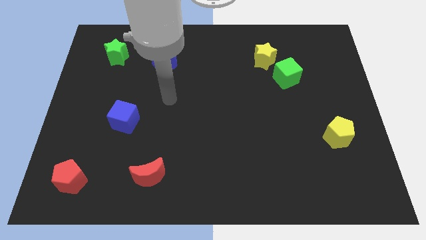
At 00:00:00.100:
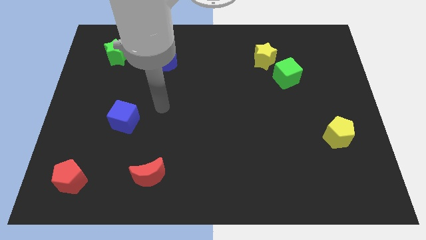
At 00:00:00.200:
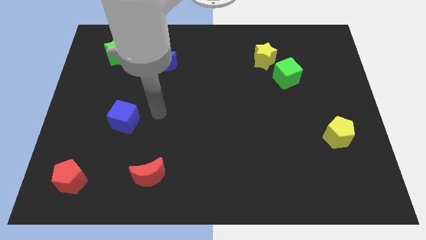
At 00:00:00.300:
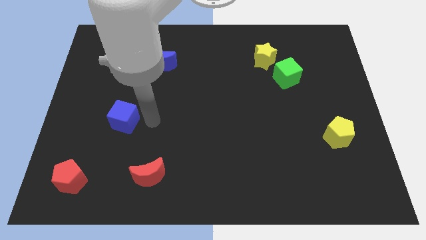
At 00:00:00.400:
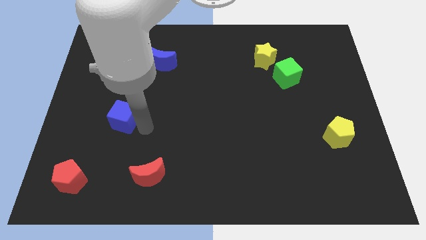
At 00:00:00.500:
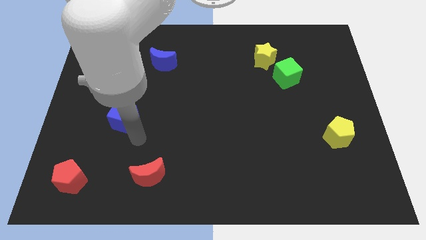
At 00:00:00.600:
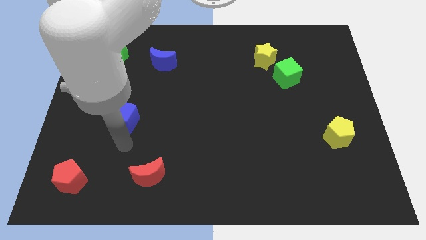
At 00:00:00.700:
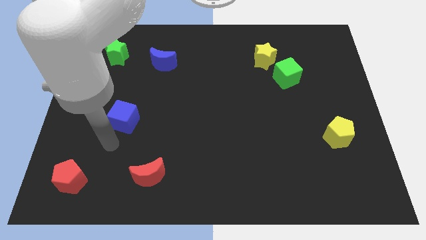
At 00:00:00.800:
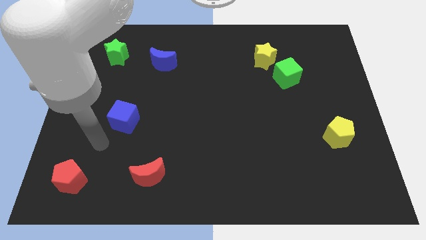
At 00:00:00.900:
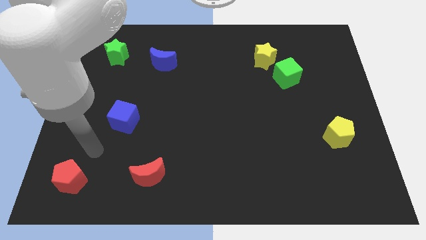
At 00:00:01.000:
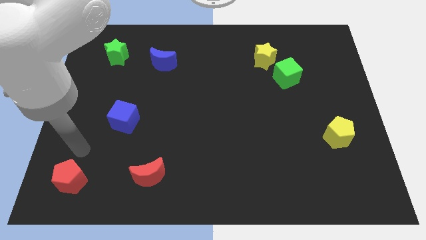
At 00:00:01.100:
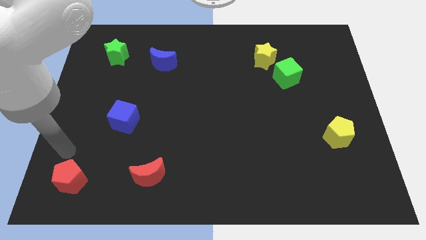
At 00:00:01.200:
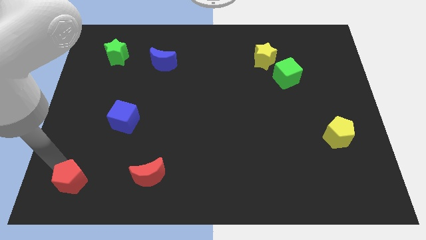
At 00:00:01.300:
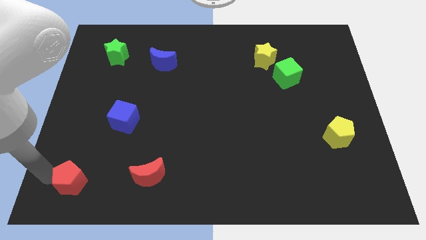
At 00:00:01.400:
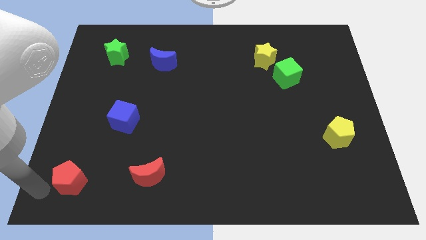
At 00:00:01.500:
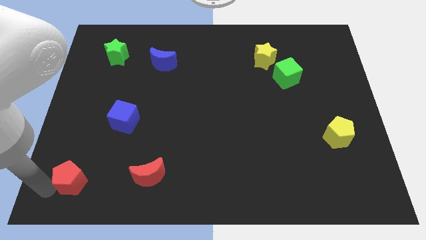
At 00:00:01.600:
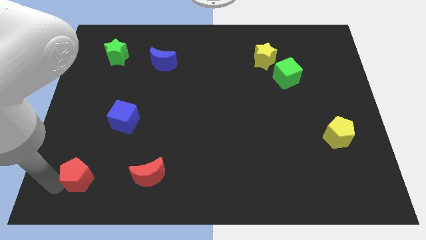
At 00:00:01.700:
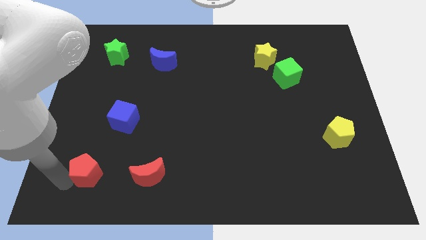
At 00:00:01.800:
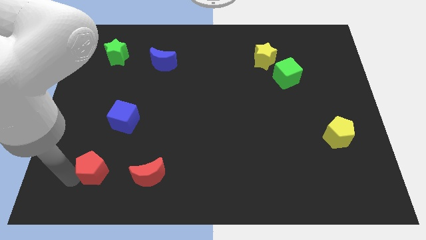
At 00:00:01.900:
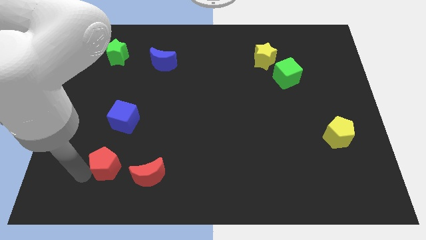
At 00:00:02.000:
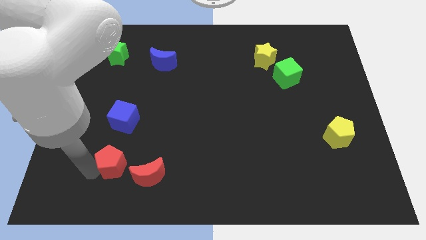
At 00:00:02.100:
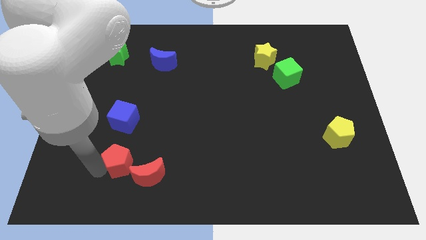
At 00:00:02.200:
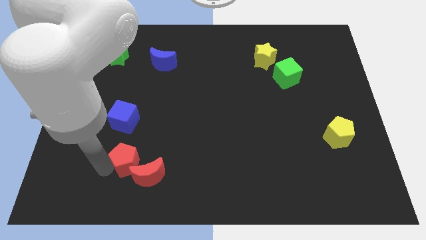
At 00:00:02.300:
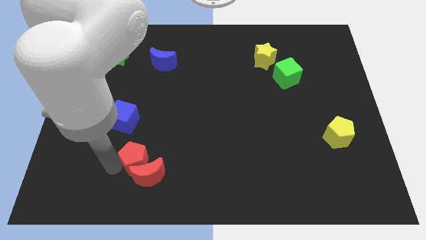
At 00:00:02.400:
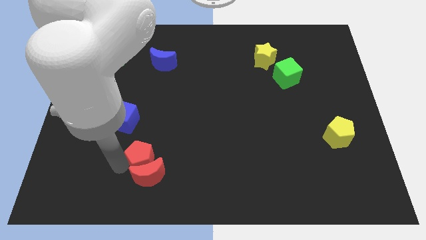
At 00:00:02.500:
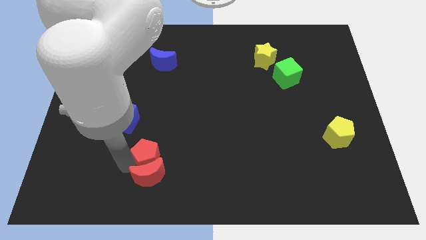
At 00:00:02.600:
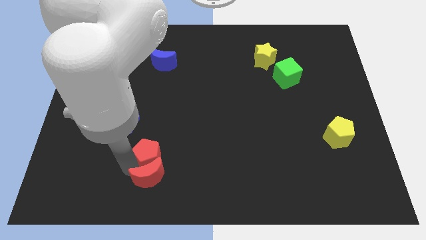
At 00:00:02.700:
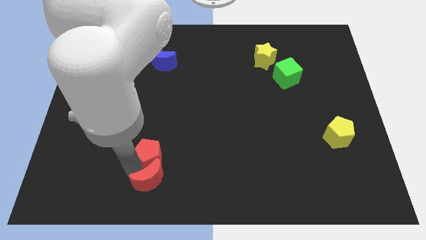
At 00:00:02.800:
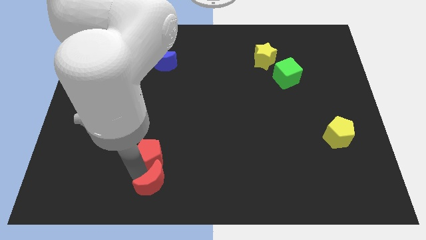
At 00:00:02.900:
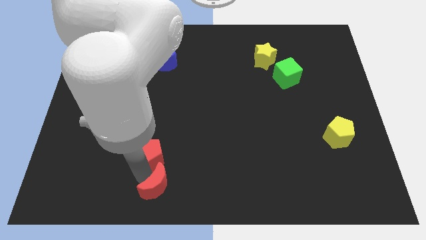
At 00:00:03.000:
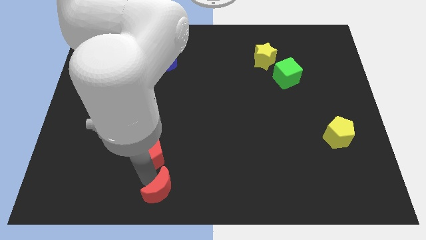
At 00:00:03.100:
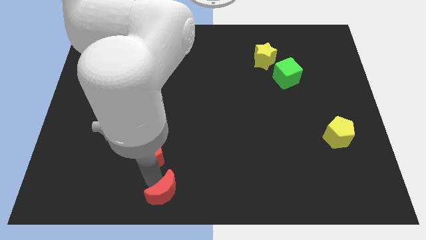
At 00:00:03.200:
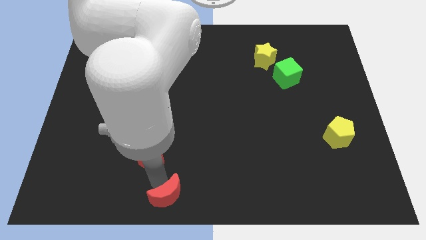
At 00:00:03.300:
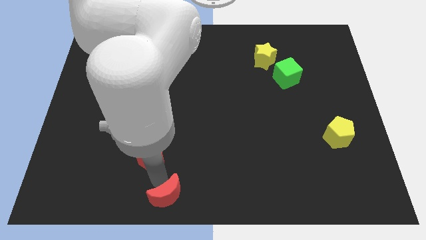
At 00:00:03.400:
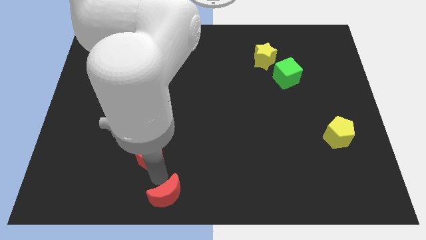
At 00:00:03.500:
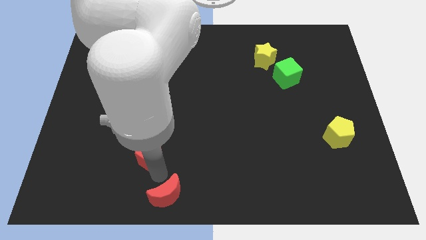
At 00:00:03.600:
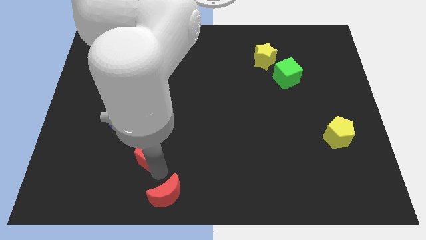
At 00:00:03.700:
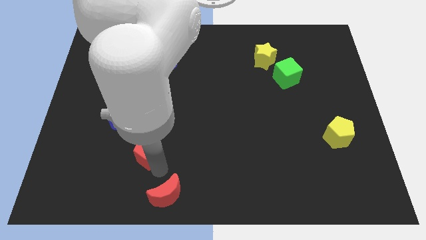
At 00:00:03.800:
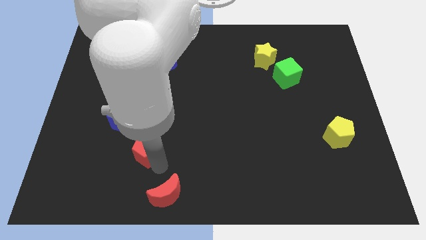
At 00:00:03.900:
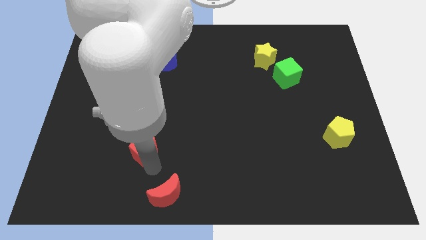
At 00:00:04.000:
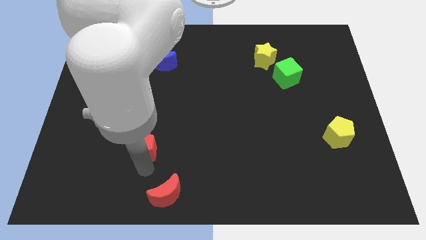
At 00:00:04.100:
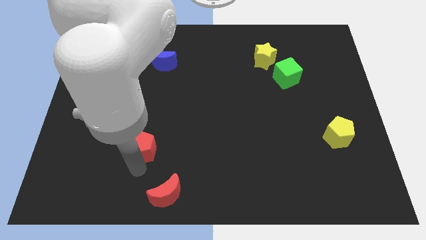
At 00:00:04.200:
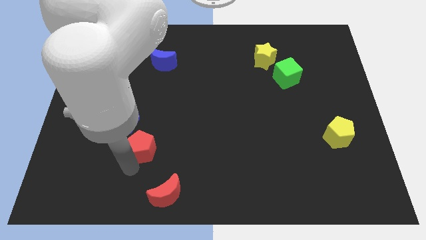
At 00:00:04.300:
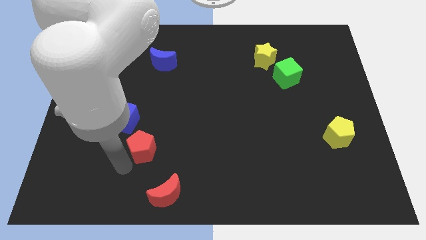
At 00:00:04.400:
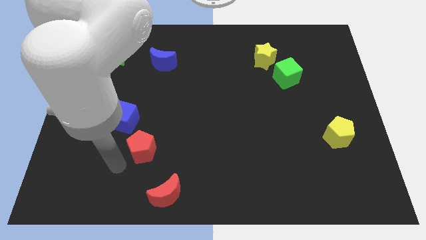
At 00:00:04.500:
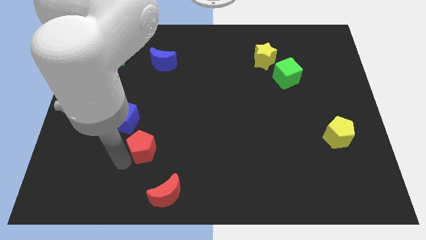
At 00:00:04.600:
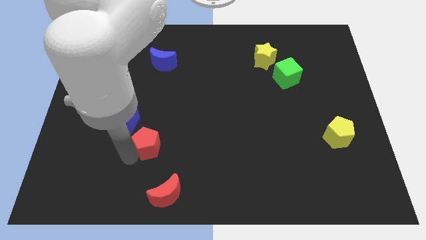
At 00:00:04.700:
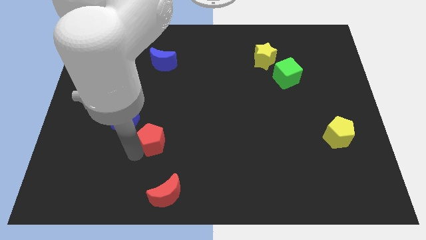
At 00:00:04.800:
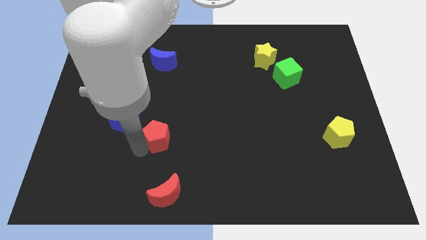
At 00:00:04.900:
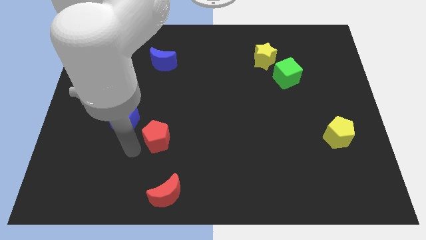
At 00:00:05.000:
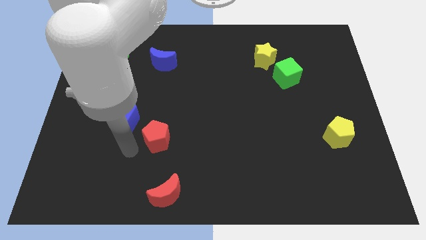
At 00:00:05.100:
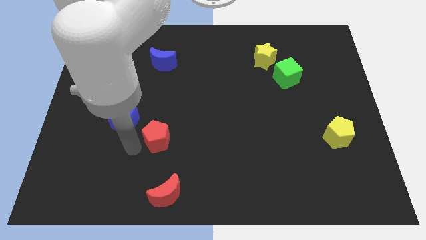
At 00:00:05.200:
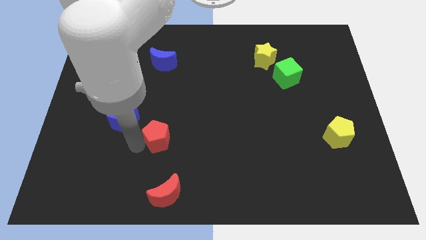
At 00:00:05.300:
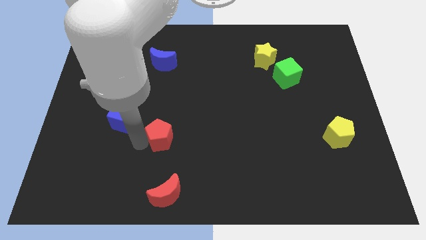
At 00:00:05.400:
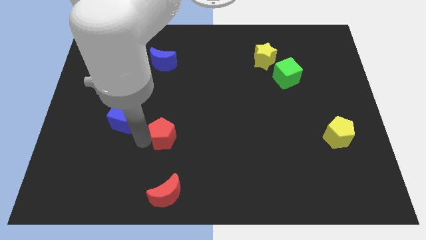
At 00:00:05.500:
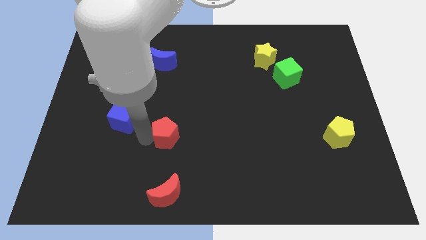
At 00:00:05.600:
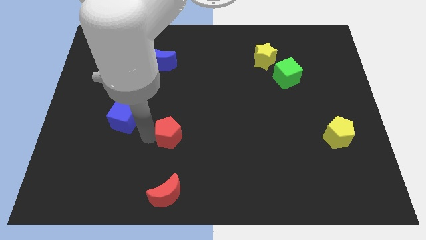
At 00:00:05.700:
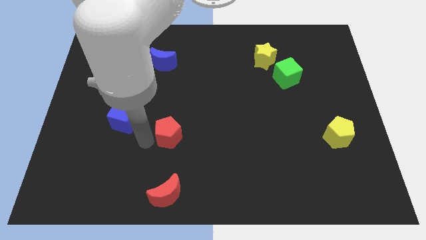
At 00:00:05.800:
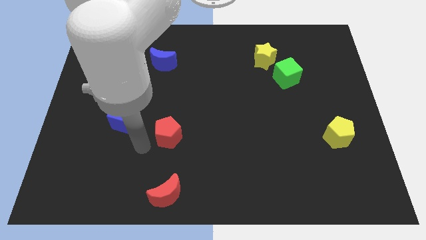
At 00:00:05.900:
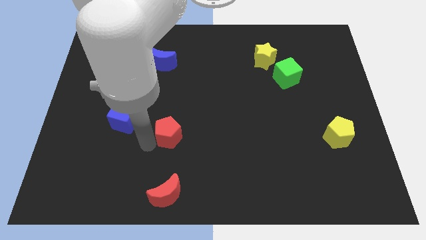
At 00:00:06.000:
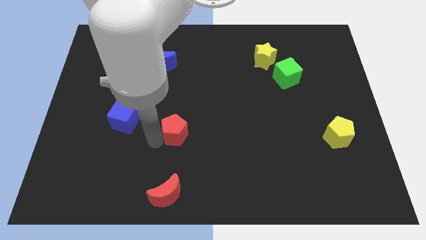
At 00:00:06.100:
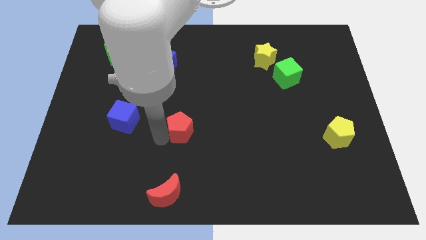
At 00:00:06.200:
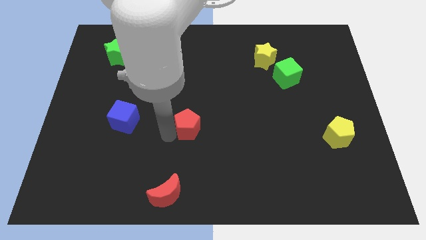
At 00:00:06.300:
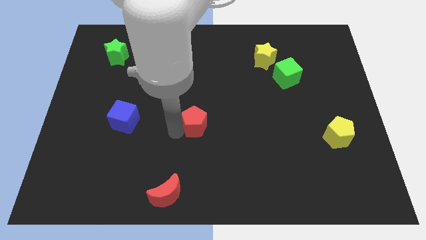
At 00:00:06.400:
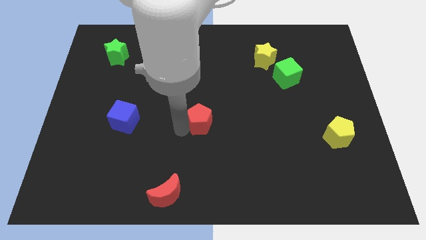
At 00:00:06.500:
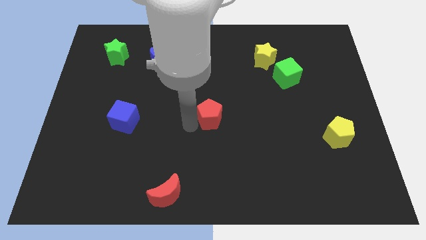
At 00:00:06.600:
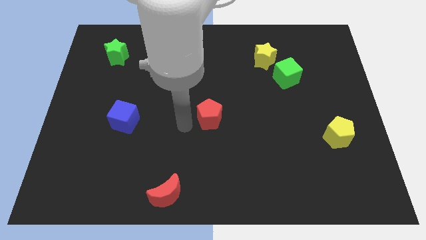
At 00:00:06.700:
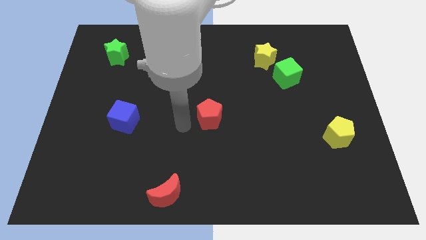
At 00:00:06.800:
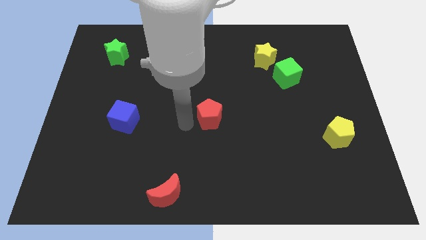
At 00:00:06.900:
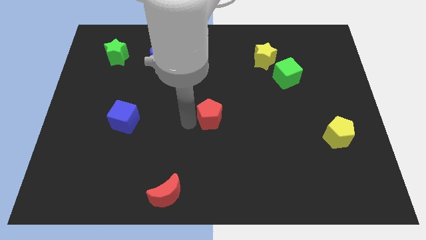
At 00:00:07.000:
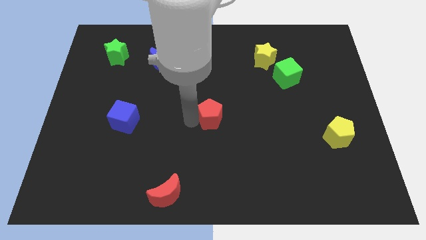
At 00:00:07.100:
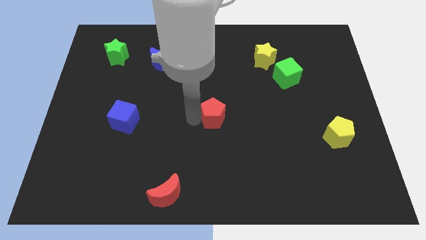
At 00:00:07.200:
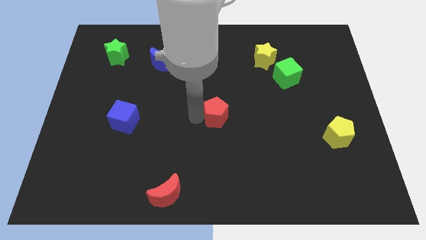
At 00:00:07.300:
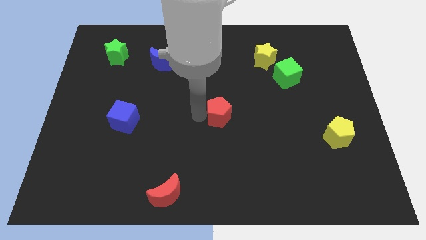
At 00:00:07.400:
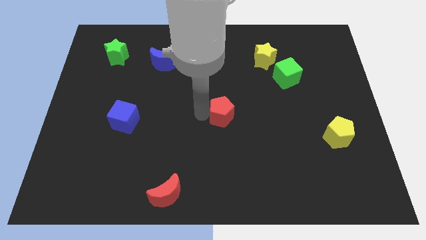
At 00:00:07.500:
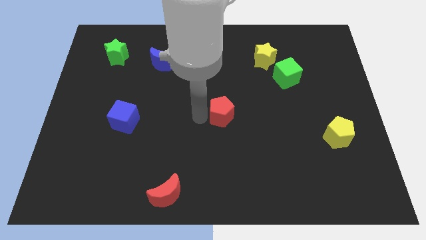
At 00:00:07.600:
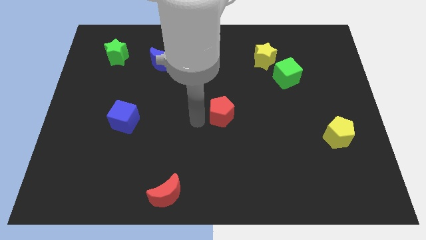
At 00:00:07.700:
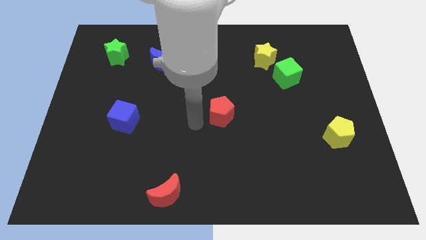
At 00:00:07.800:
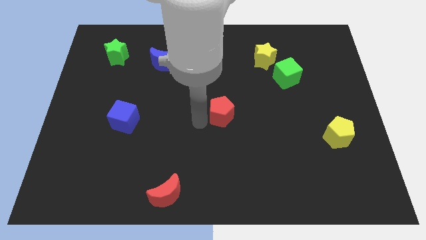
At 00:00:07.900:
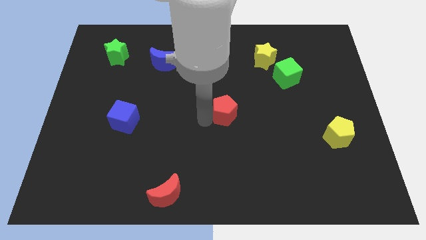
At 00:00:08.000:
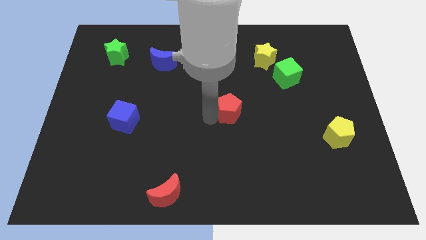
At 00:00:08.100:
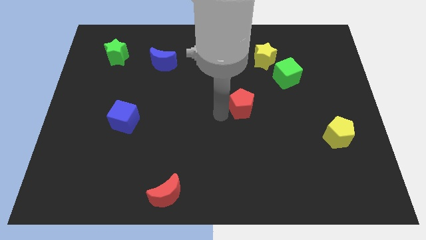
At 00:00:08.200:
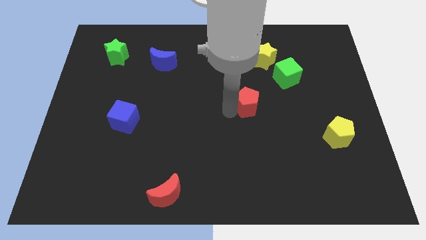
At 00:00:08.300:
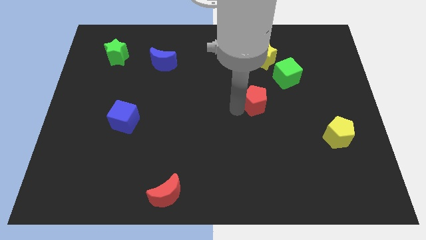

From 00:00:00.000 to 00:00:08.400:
slide the red pentagon to the bottom side of the yellow star
